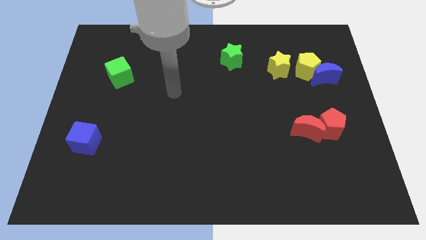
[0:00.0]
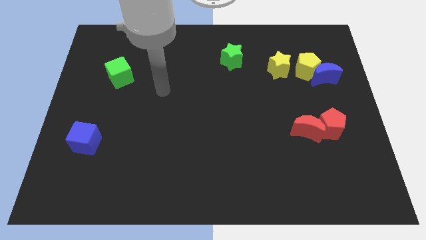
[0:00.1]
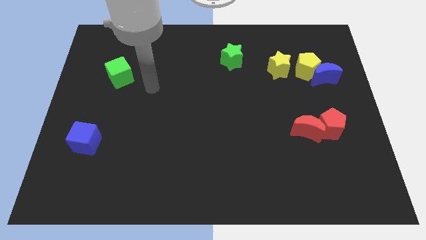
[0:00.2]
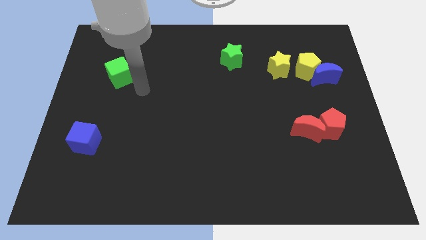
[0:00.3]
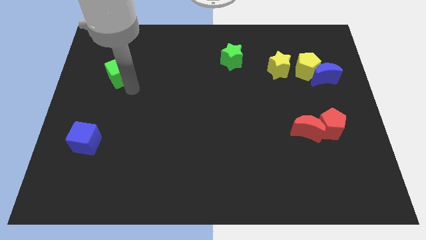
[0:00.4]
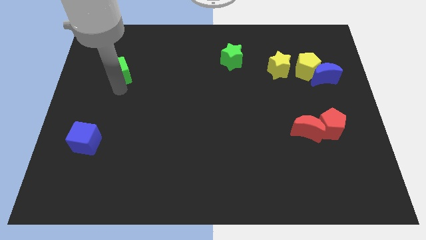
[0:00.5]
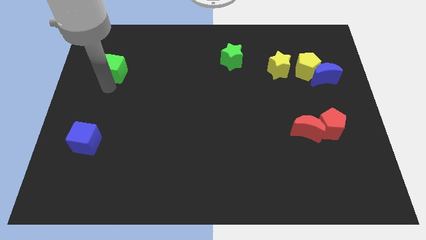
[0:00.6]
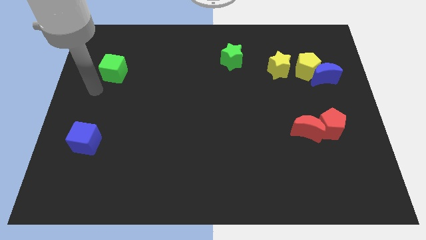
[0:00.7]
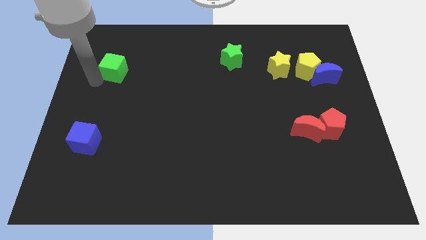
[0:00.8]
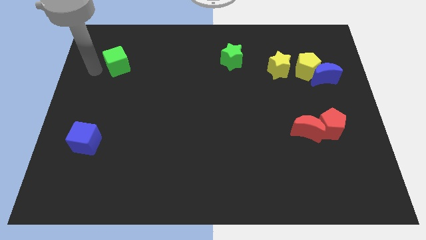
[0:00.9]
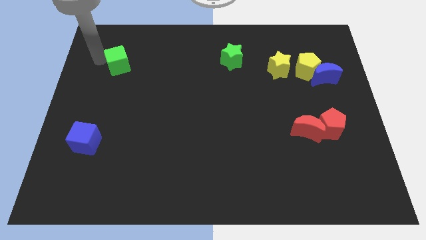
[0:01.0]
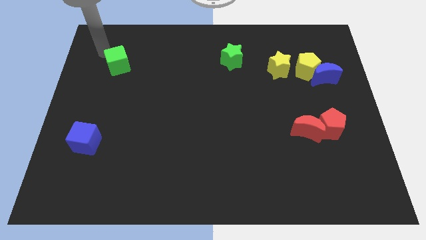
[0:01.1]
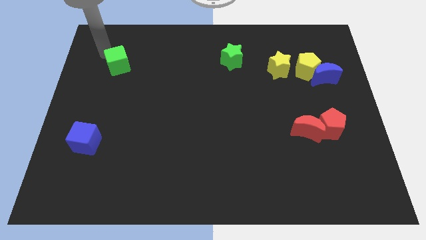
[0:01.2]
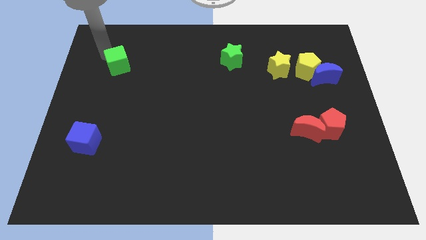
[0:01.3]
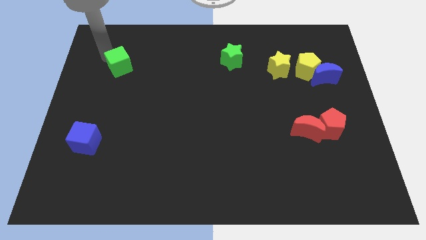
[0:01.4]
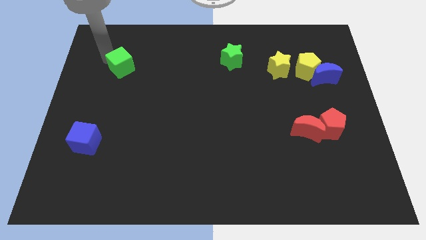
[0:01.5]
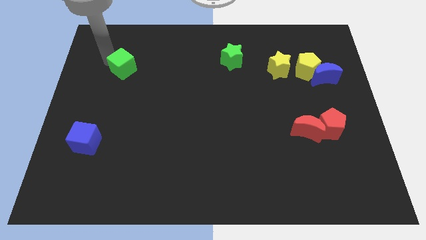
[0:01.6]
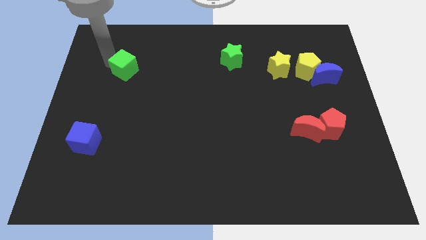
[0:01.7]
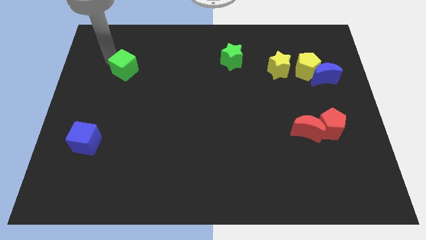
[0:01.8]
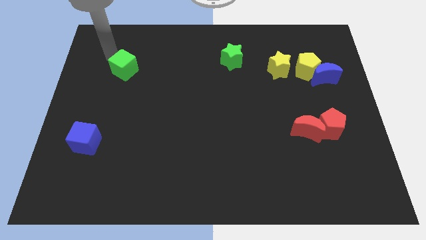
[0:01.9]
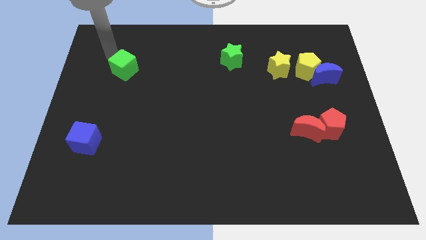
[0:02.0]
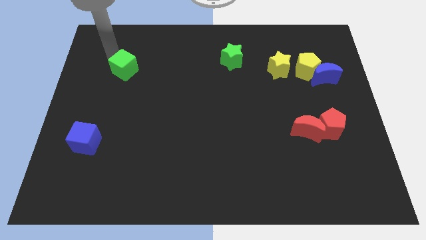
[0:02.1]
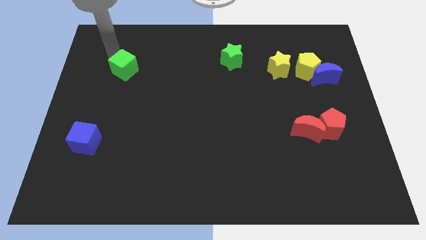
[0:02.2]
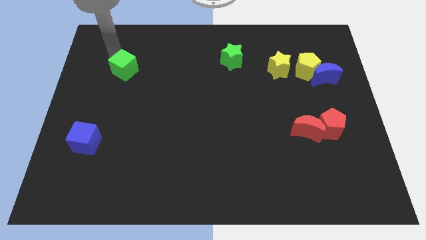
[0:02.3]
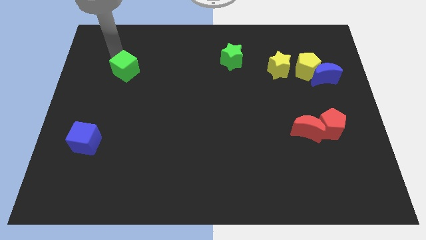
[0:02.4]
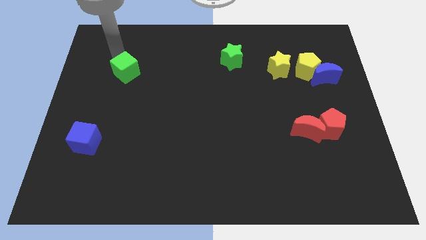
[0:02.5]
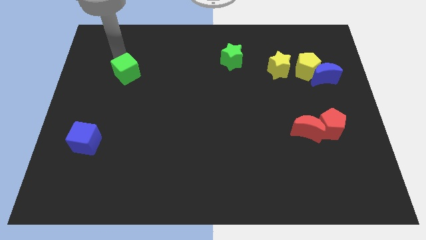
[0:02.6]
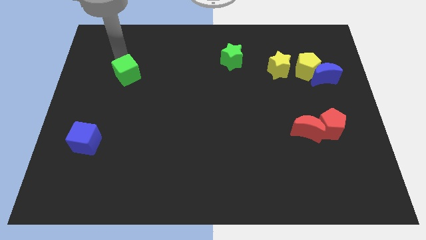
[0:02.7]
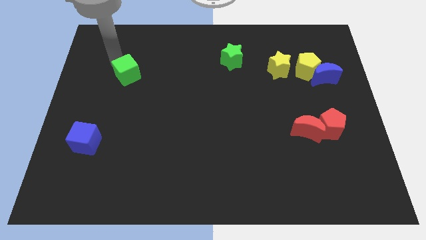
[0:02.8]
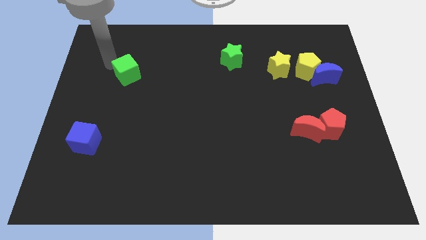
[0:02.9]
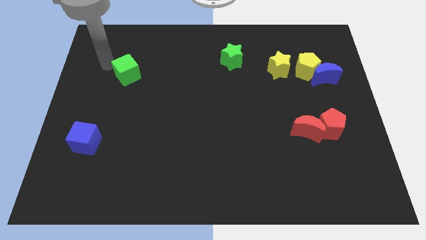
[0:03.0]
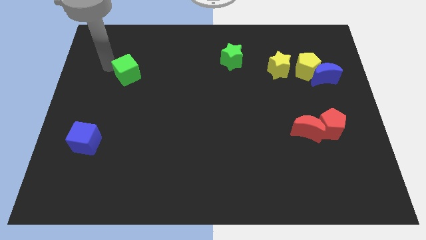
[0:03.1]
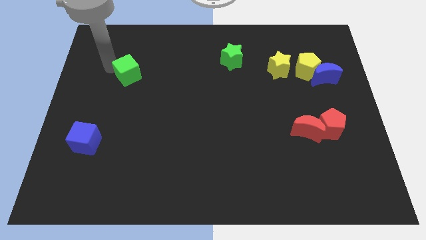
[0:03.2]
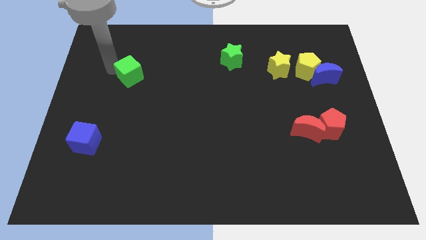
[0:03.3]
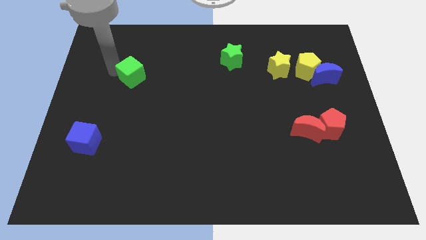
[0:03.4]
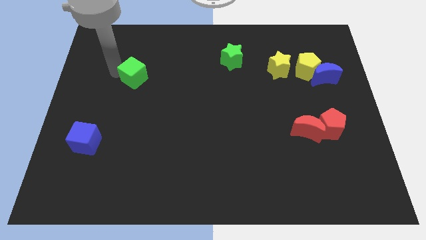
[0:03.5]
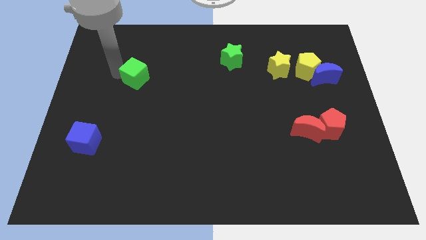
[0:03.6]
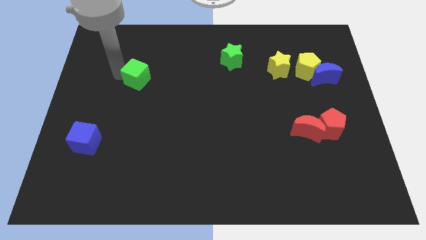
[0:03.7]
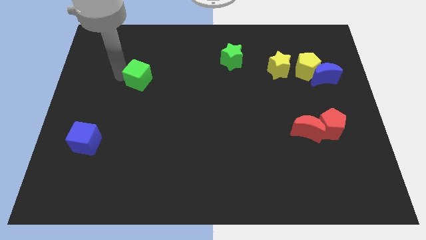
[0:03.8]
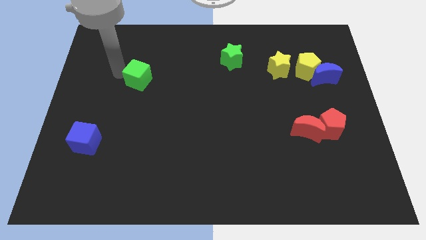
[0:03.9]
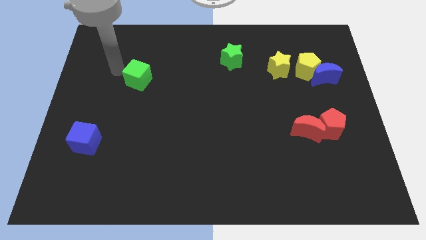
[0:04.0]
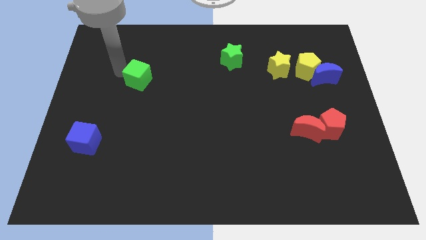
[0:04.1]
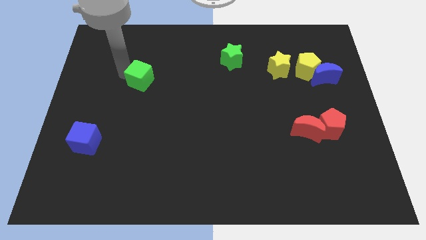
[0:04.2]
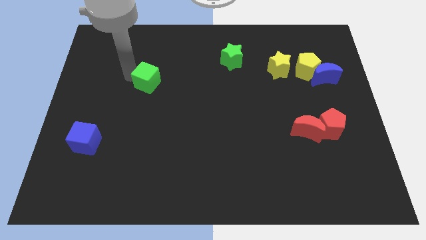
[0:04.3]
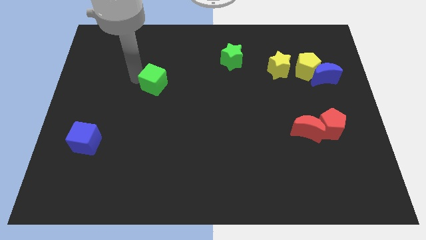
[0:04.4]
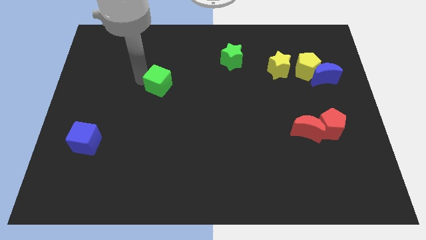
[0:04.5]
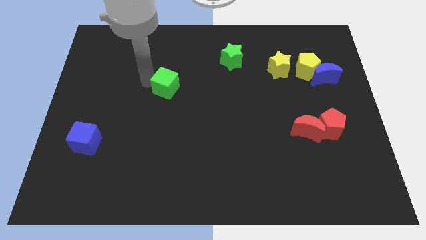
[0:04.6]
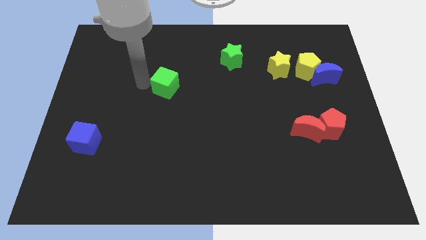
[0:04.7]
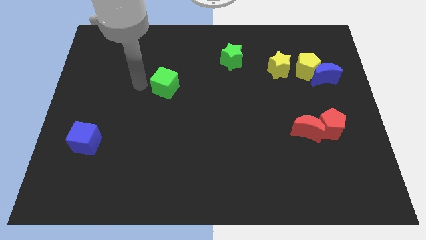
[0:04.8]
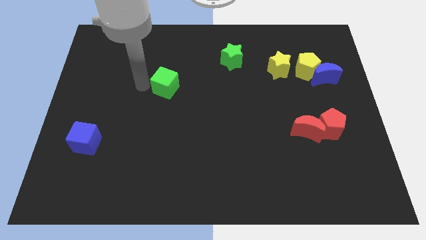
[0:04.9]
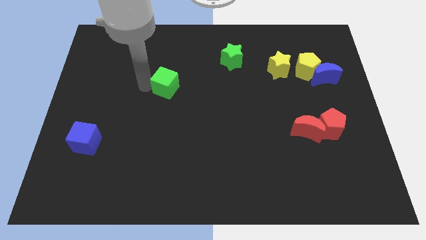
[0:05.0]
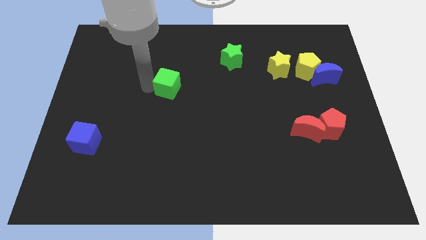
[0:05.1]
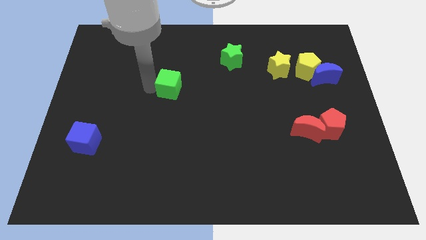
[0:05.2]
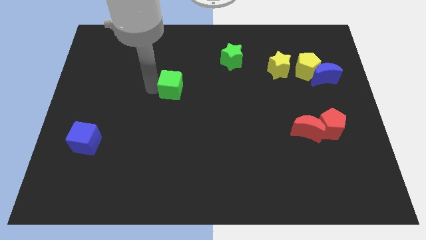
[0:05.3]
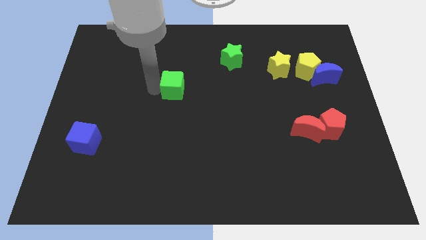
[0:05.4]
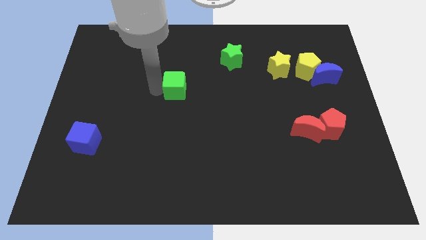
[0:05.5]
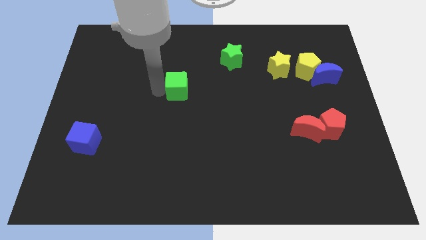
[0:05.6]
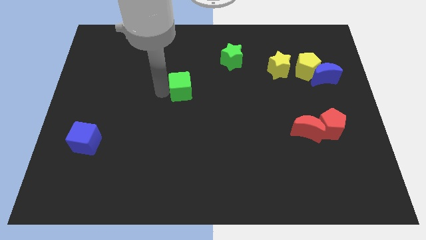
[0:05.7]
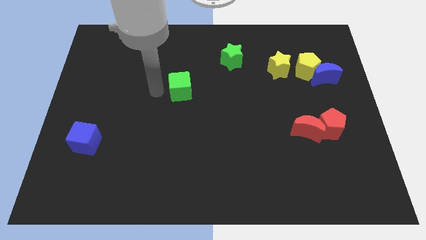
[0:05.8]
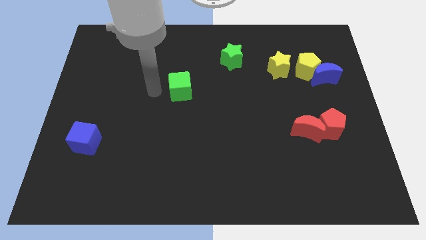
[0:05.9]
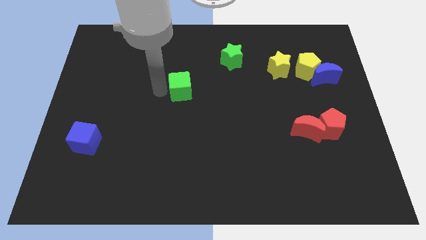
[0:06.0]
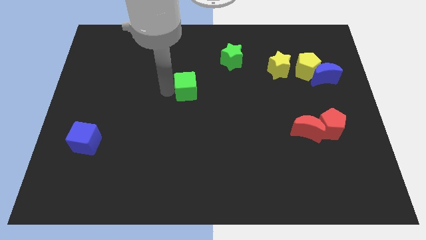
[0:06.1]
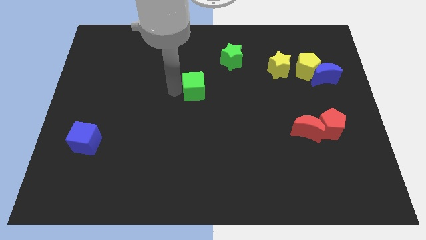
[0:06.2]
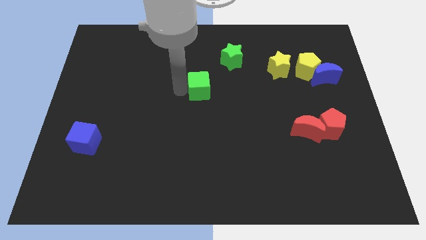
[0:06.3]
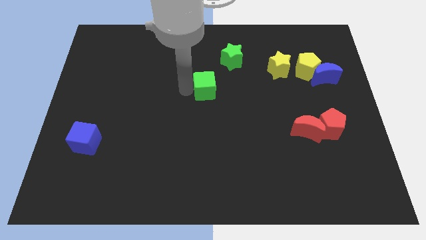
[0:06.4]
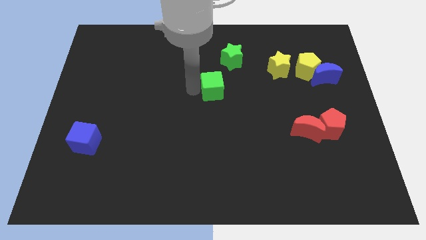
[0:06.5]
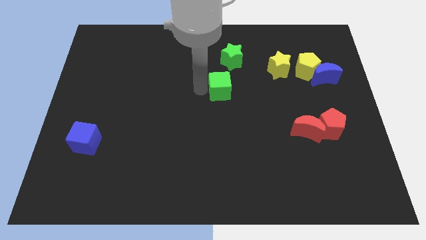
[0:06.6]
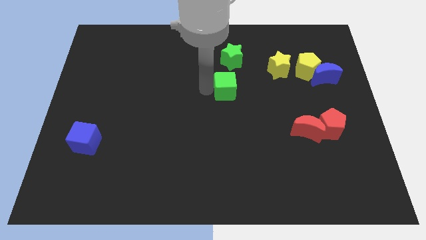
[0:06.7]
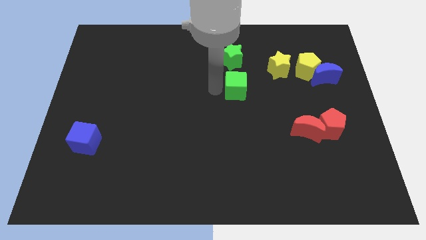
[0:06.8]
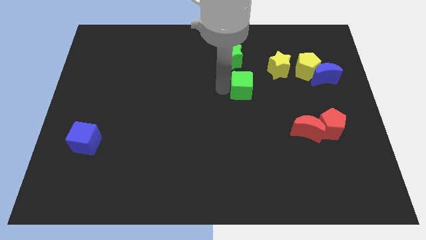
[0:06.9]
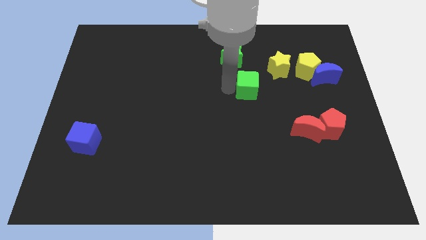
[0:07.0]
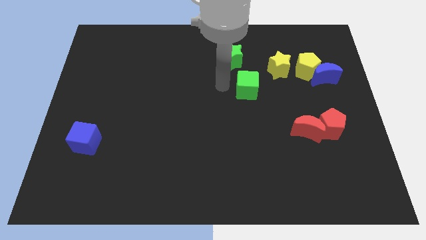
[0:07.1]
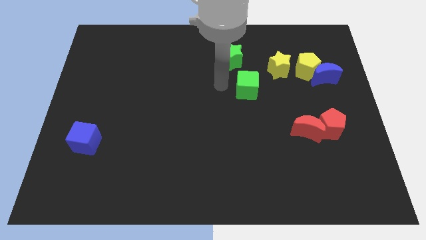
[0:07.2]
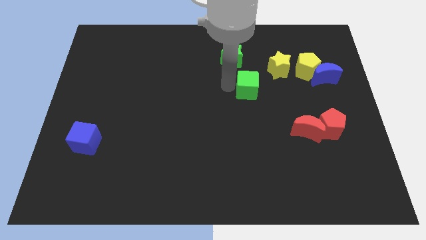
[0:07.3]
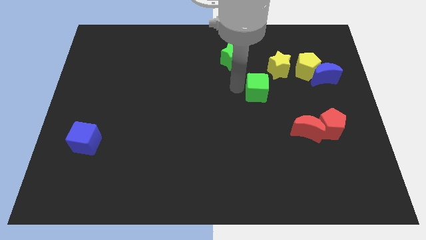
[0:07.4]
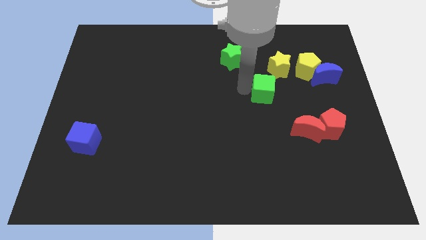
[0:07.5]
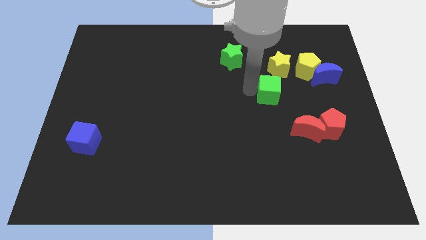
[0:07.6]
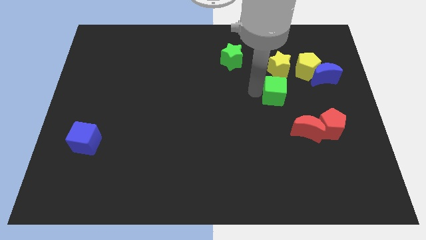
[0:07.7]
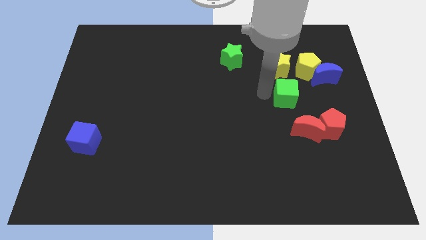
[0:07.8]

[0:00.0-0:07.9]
put the green cube to the bottom left of the blue moon
